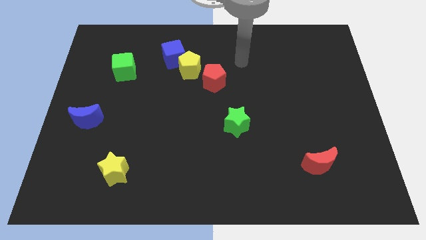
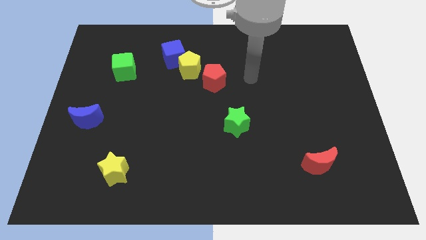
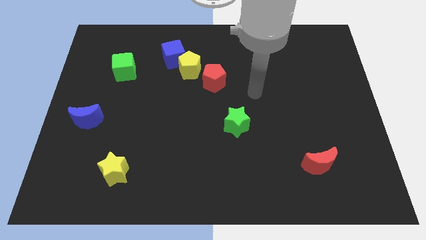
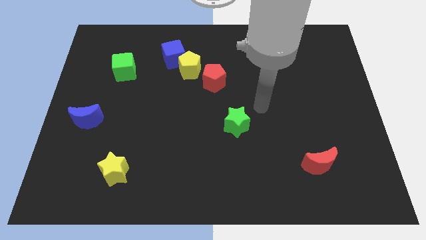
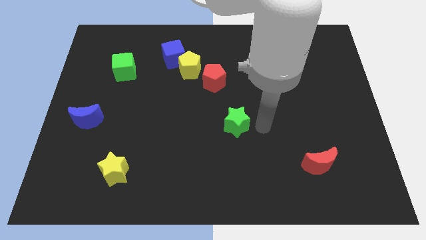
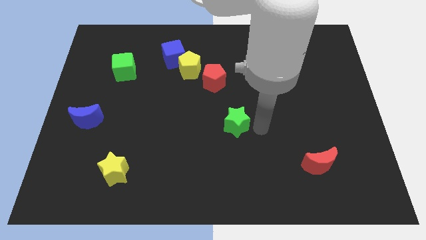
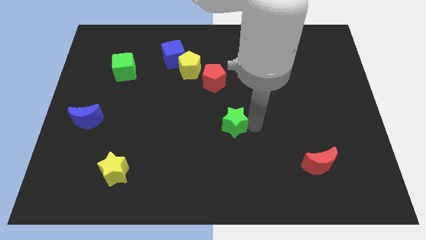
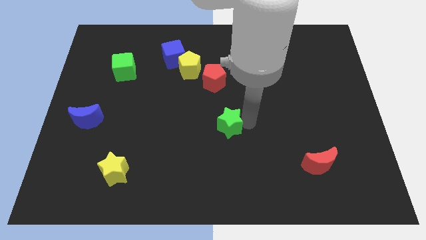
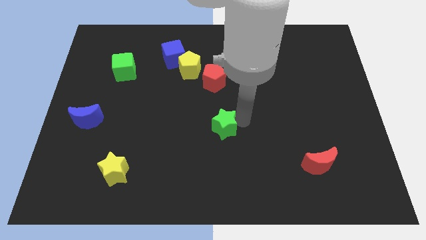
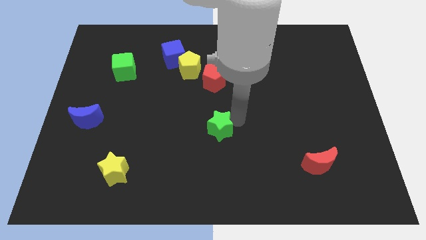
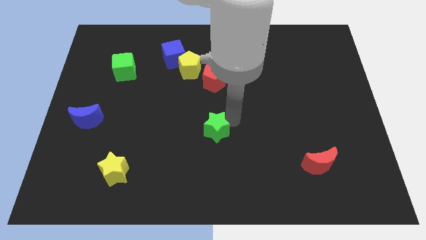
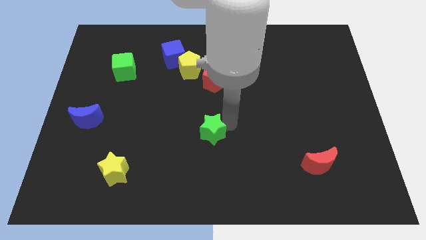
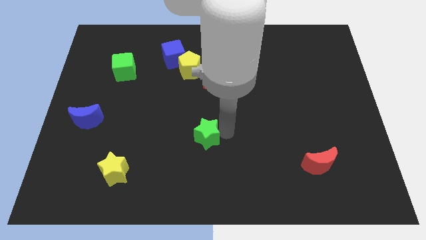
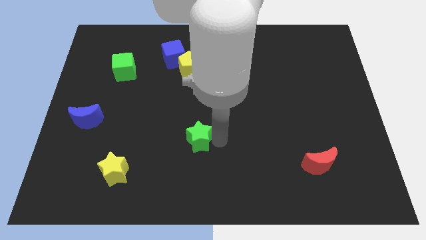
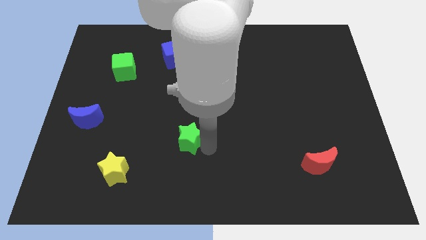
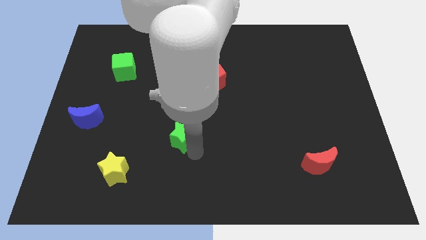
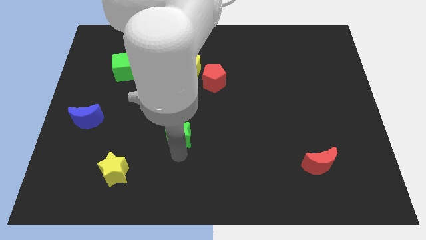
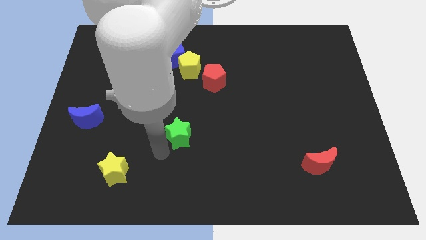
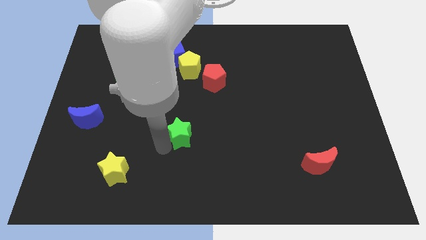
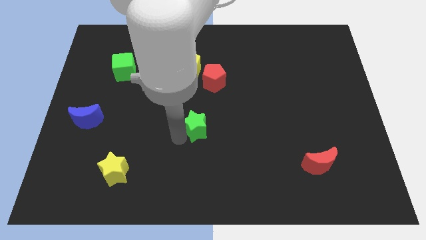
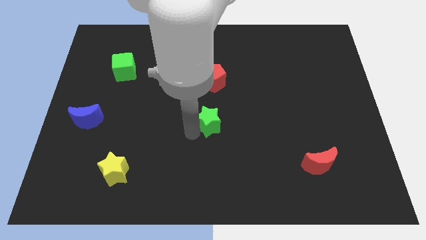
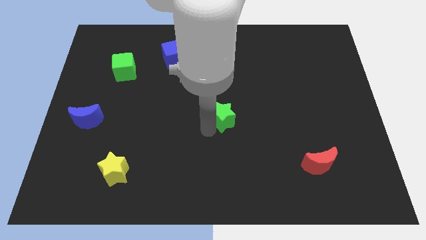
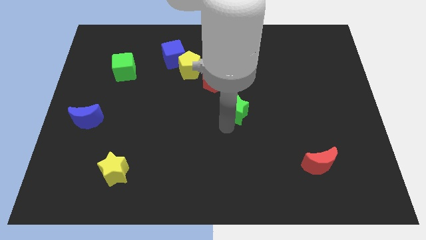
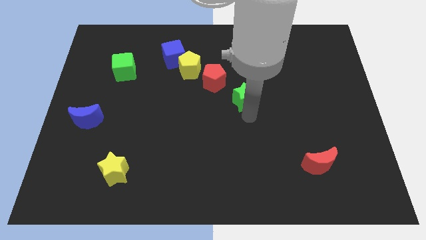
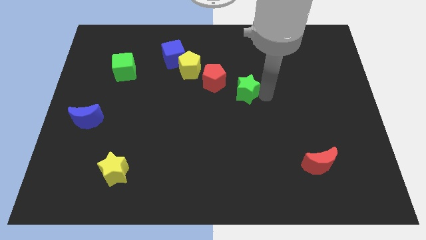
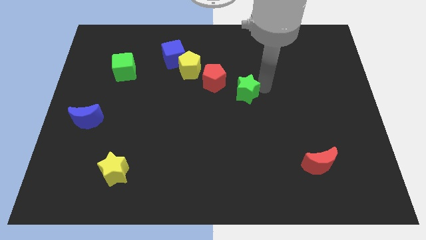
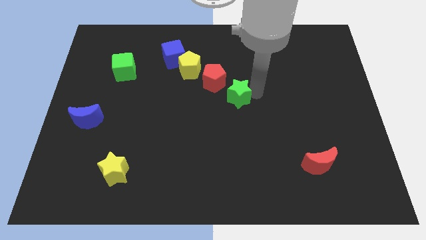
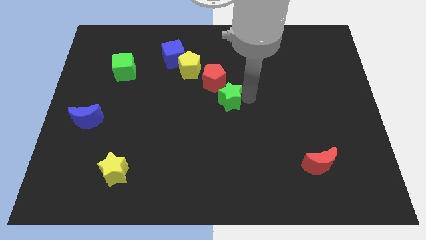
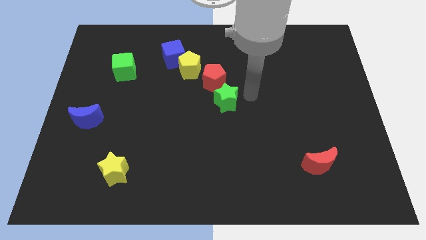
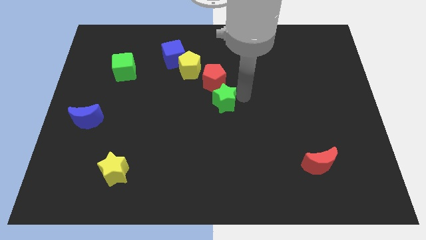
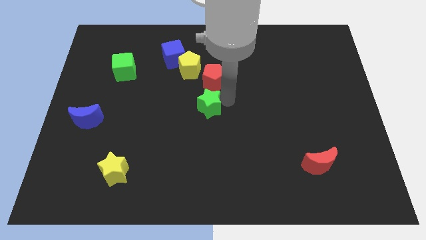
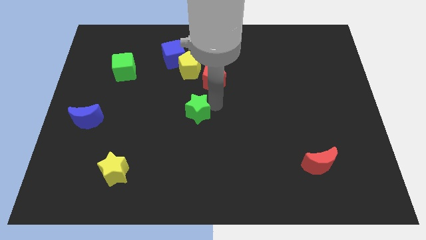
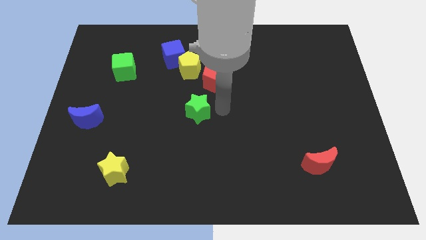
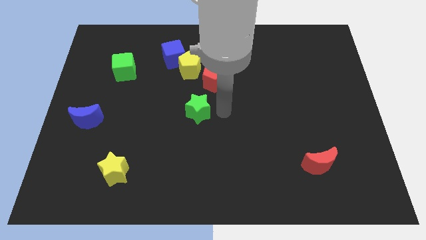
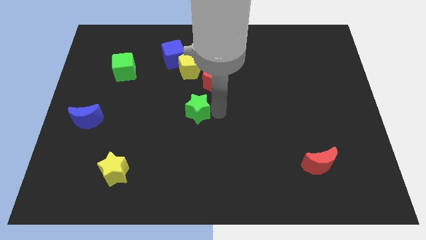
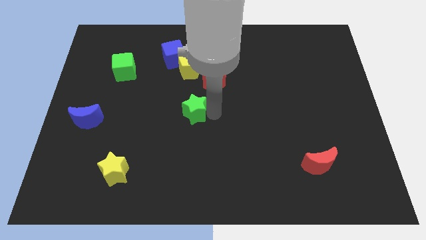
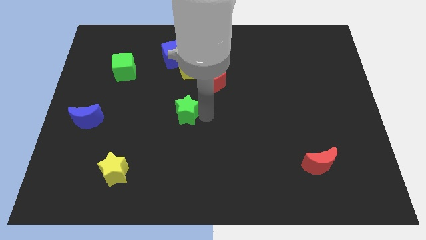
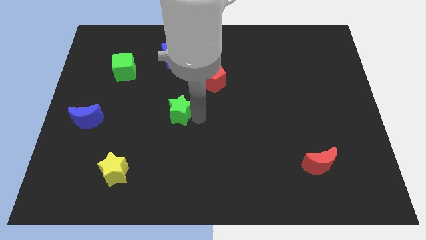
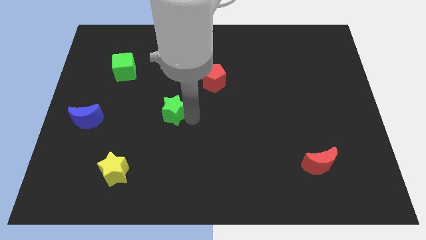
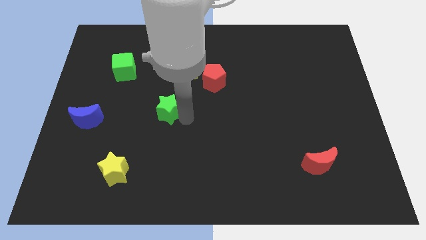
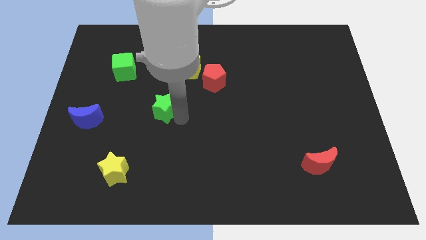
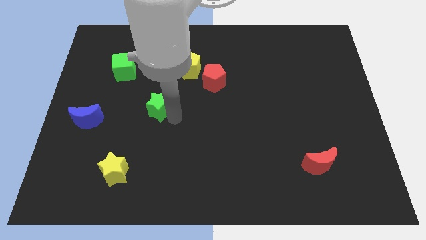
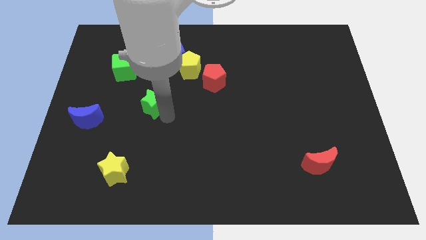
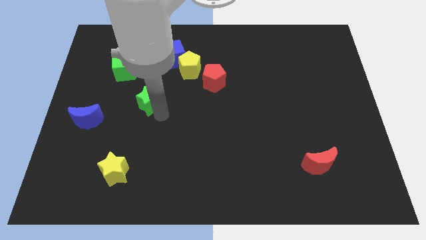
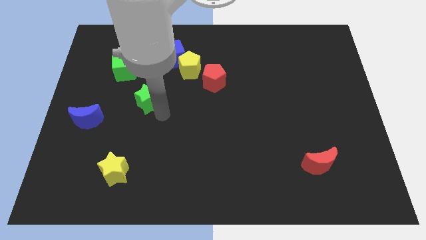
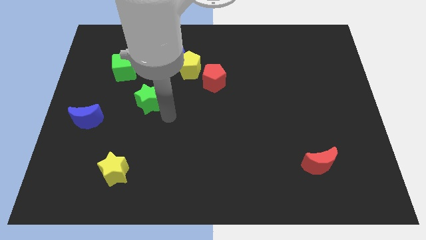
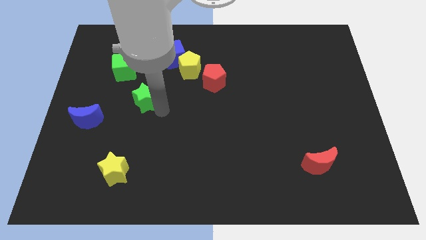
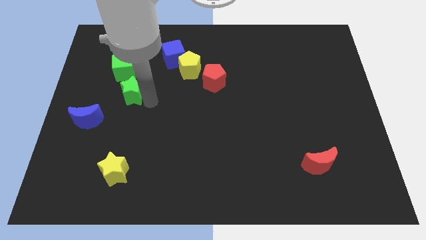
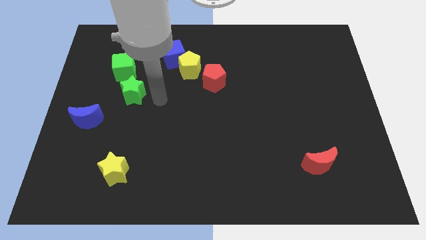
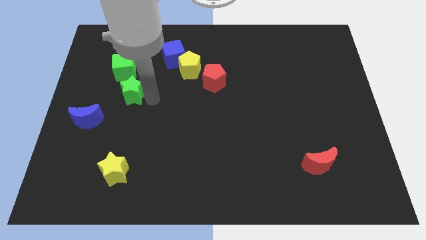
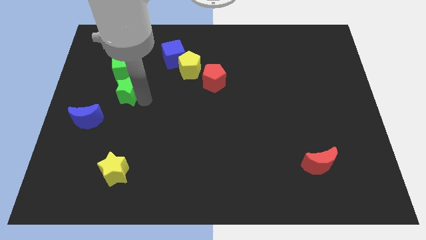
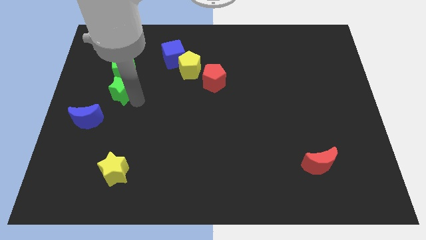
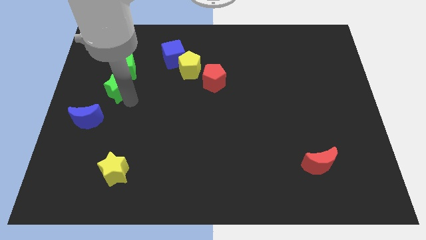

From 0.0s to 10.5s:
push the green star to the bottom left side of the green cube

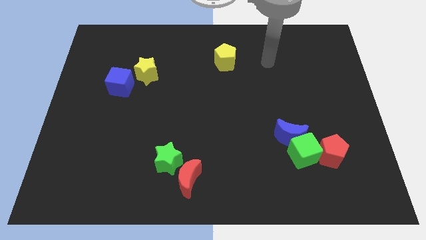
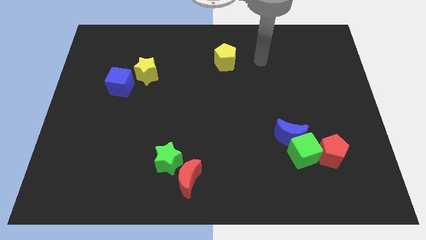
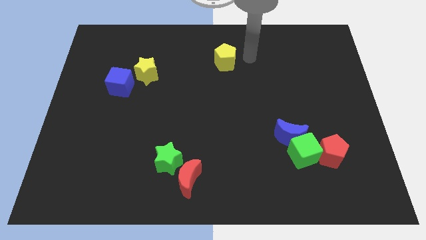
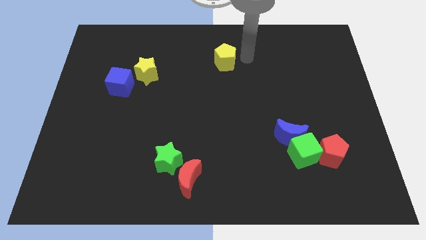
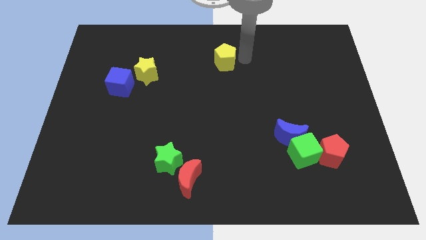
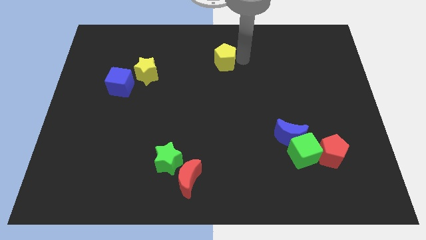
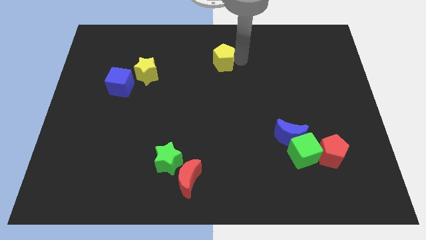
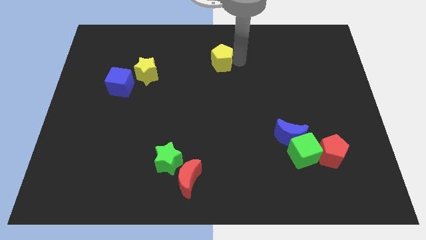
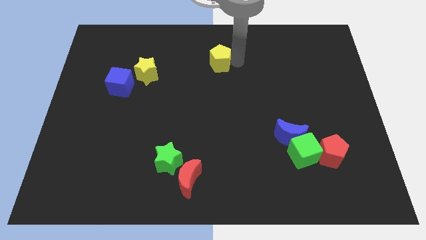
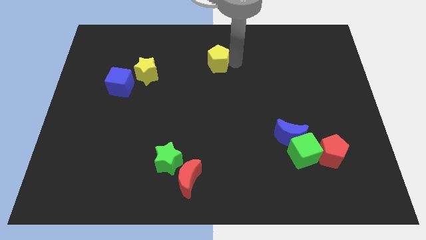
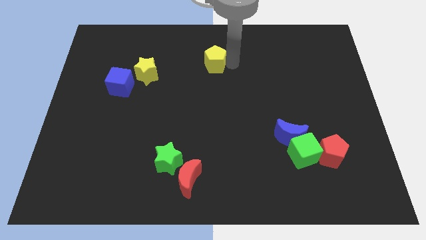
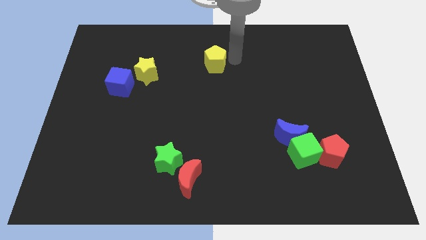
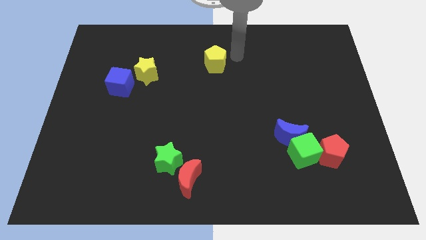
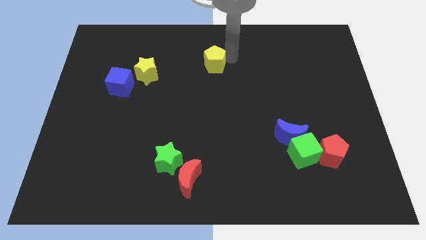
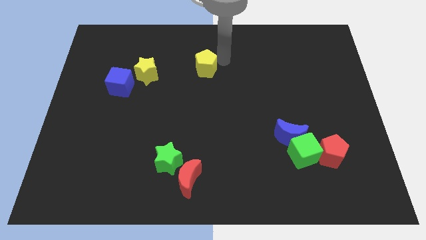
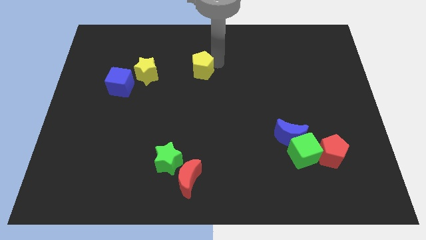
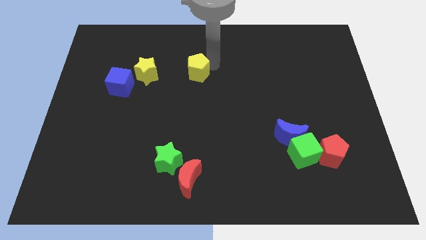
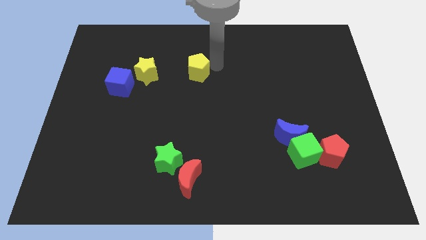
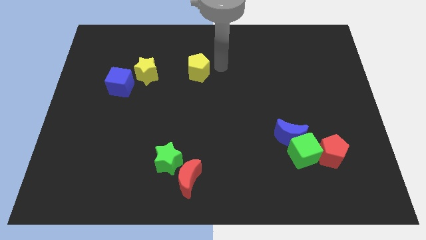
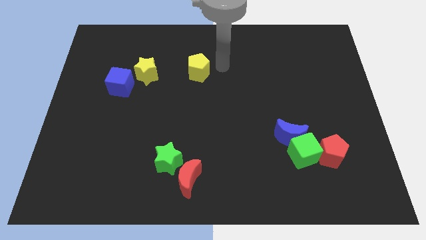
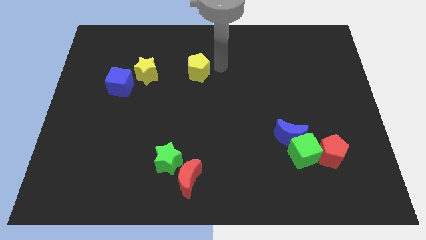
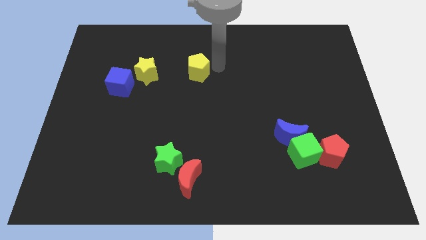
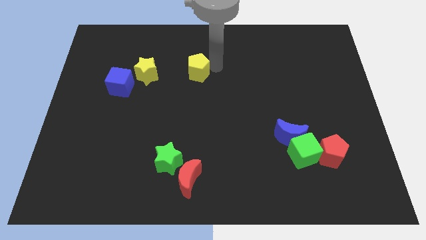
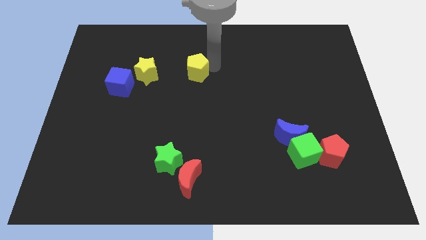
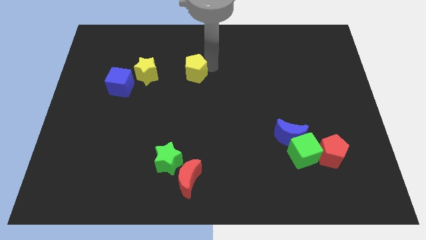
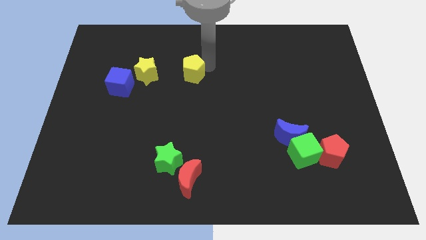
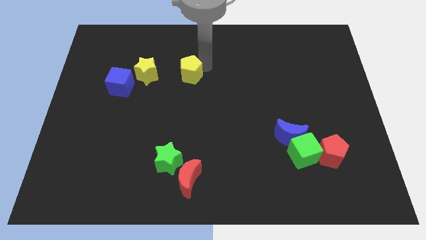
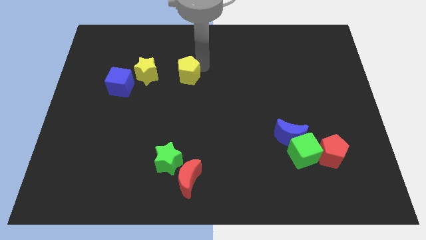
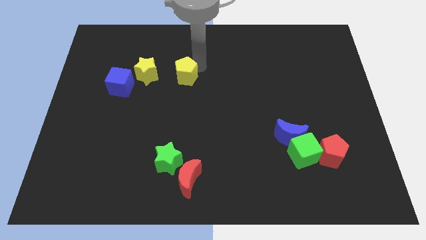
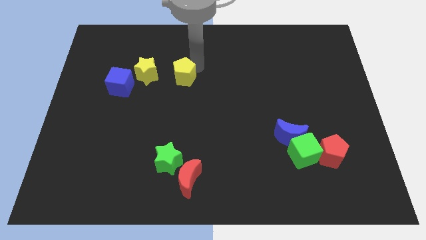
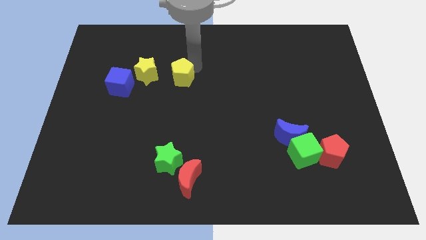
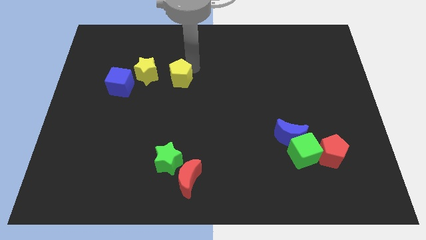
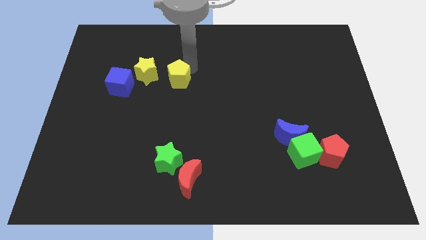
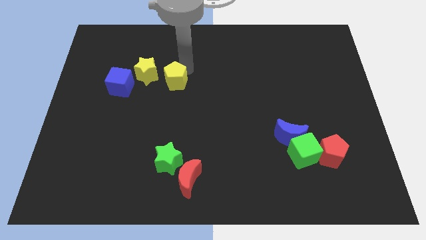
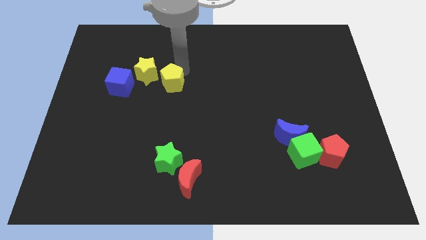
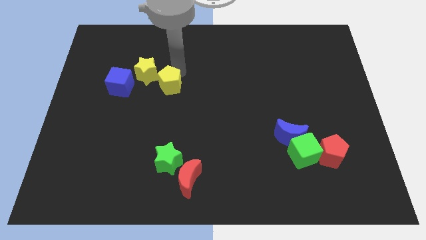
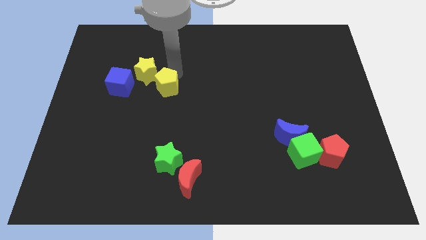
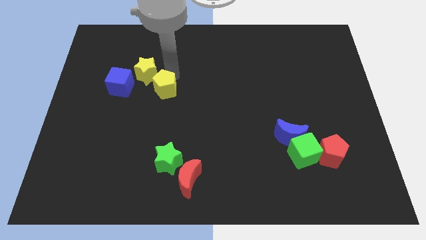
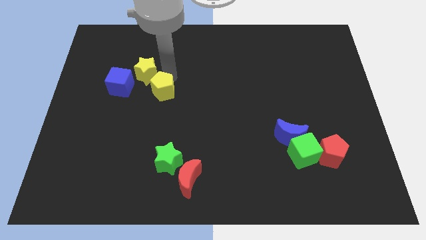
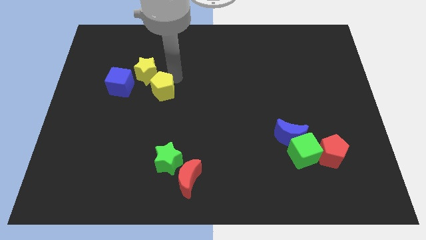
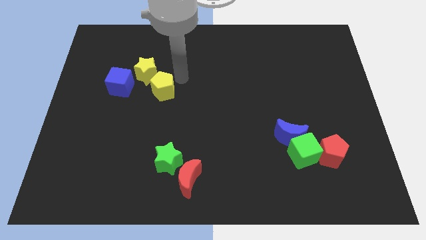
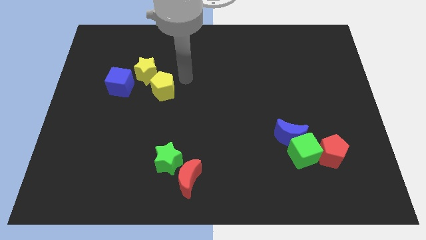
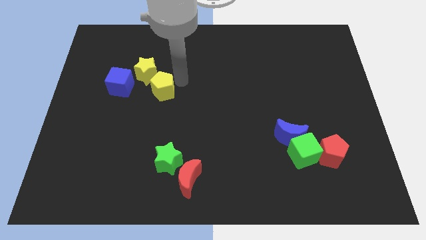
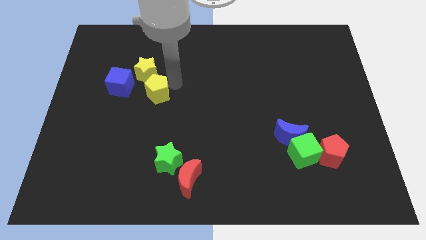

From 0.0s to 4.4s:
push the yellow pentagon to the bottom right side of the blue cube
